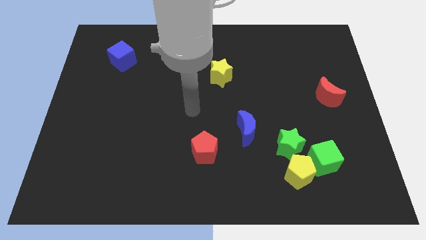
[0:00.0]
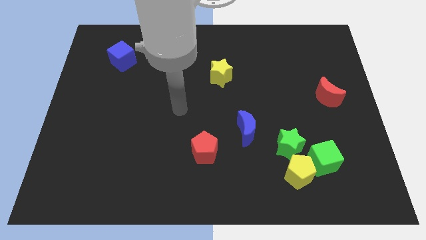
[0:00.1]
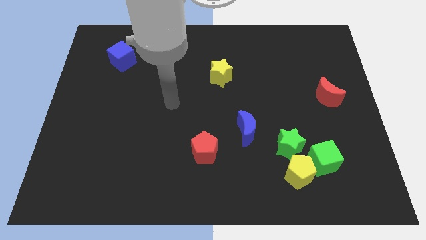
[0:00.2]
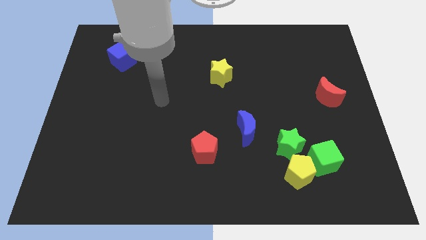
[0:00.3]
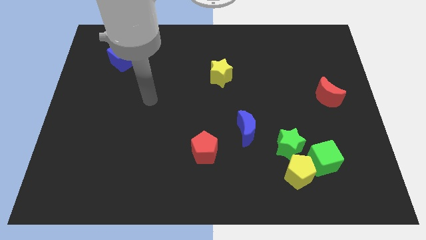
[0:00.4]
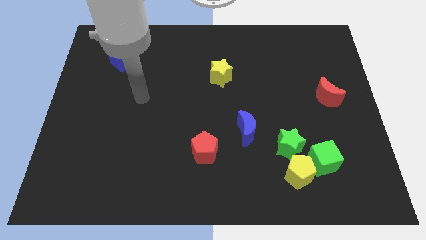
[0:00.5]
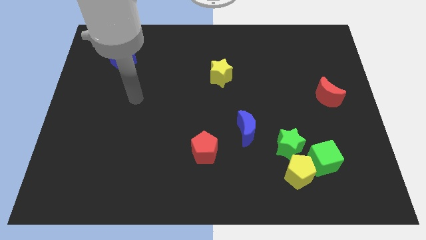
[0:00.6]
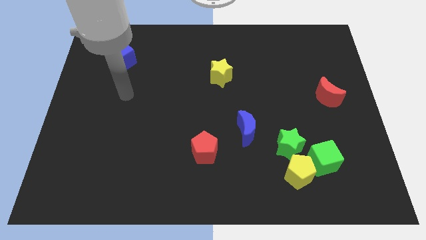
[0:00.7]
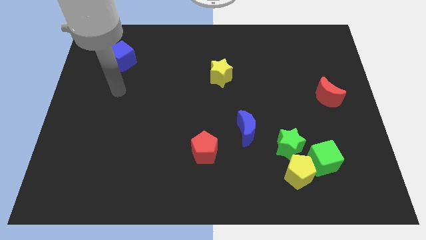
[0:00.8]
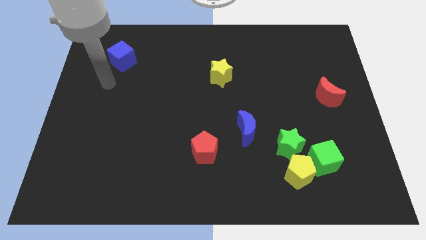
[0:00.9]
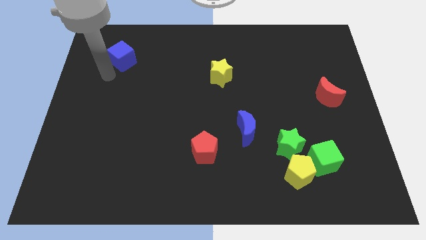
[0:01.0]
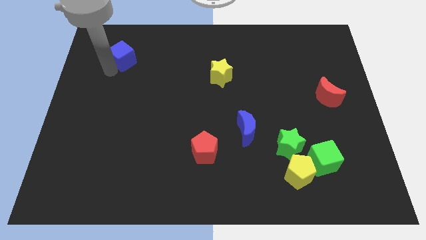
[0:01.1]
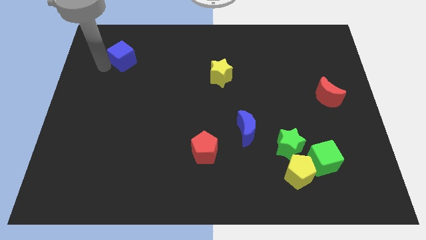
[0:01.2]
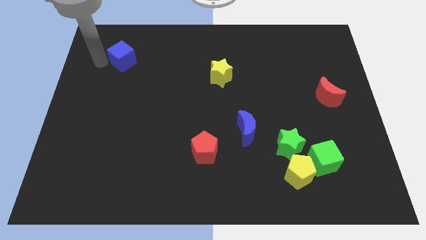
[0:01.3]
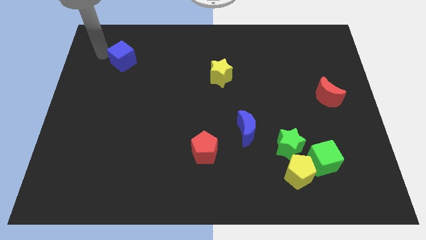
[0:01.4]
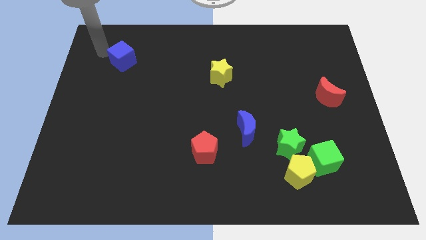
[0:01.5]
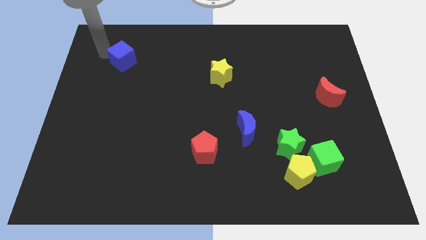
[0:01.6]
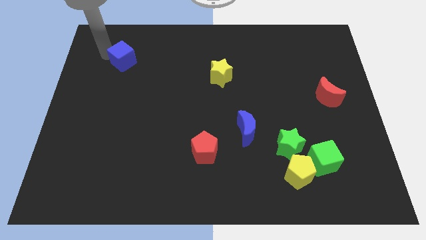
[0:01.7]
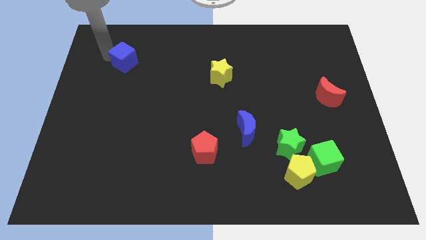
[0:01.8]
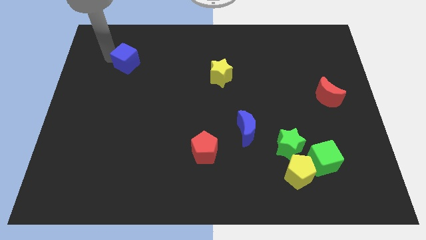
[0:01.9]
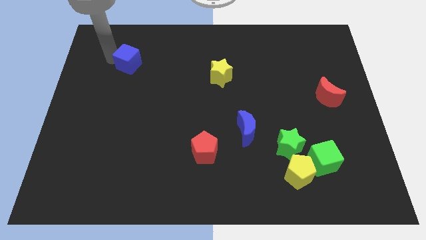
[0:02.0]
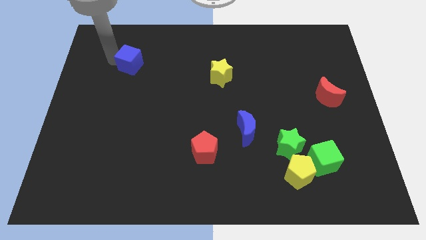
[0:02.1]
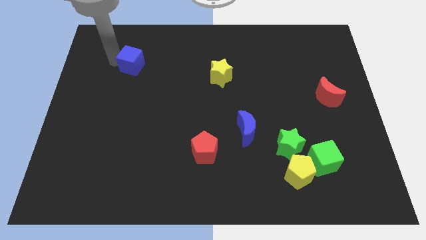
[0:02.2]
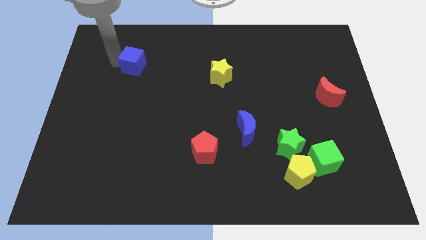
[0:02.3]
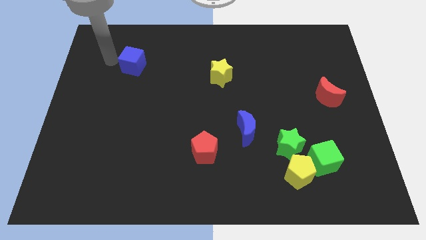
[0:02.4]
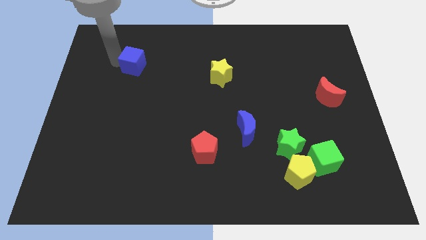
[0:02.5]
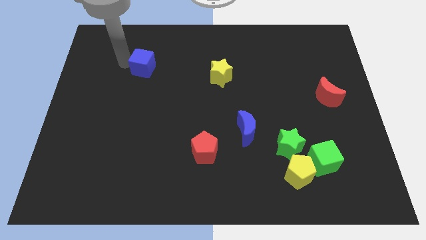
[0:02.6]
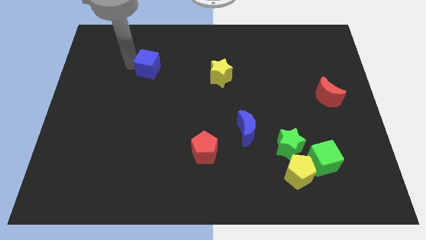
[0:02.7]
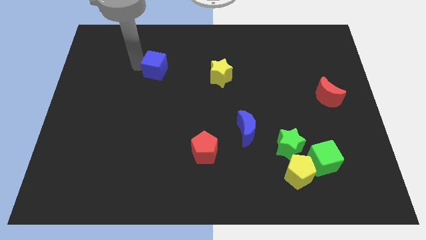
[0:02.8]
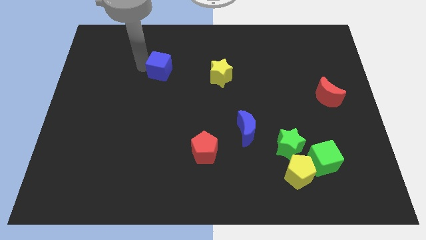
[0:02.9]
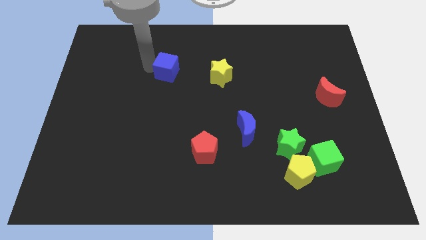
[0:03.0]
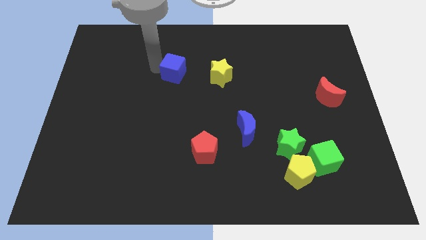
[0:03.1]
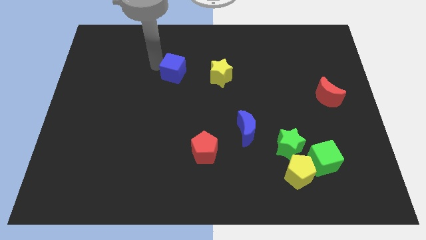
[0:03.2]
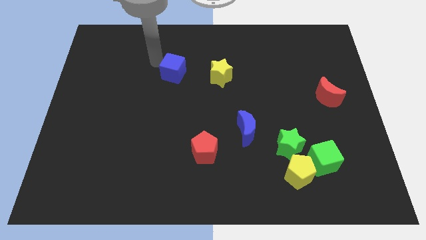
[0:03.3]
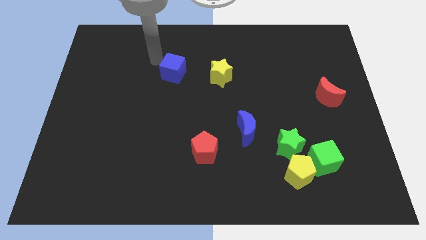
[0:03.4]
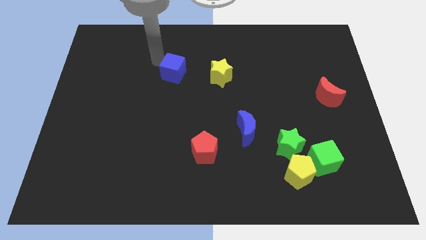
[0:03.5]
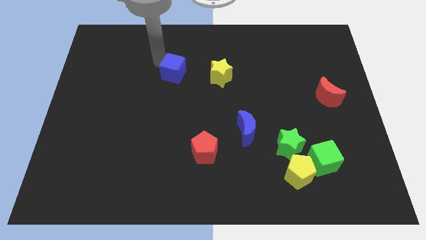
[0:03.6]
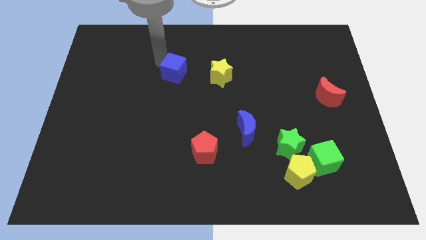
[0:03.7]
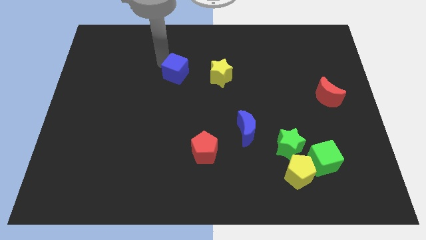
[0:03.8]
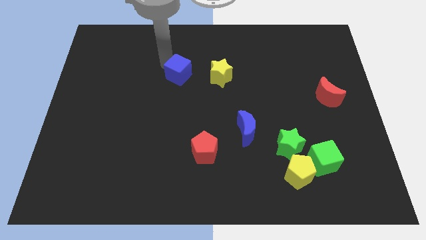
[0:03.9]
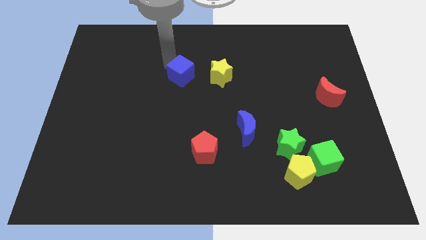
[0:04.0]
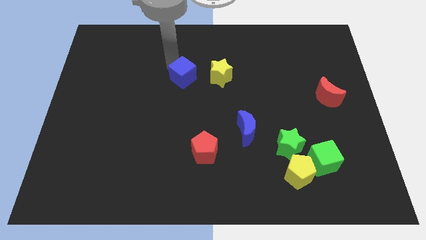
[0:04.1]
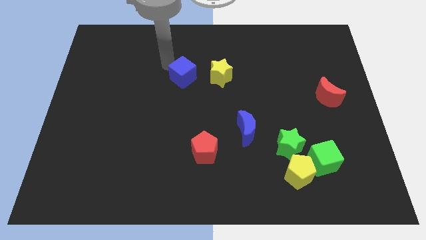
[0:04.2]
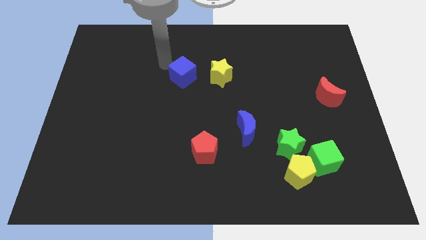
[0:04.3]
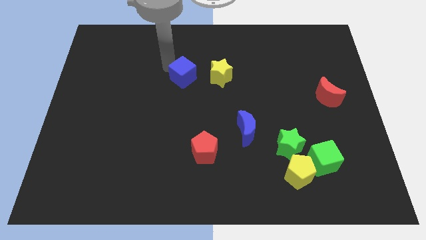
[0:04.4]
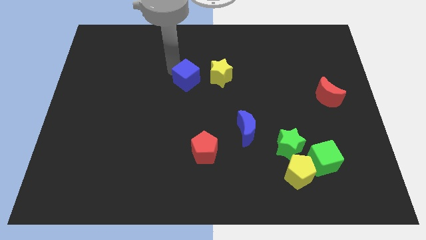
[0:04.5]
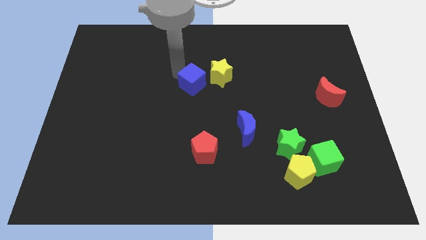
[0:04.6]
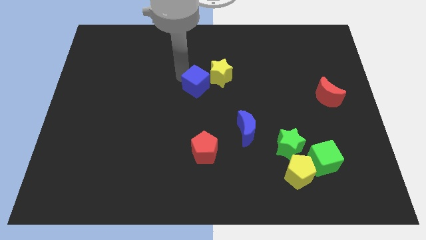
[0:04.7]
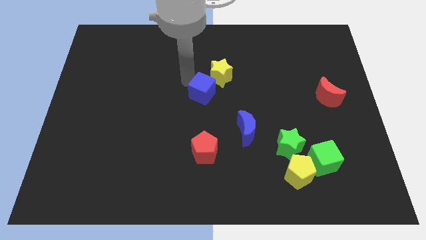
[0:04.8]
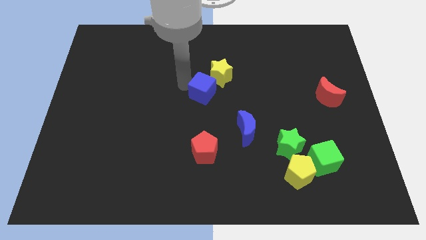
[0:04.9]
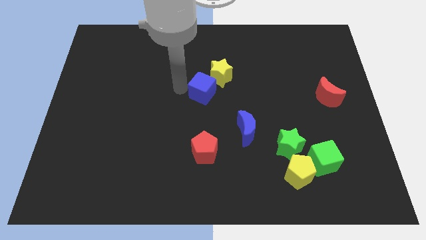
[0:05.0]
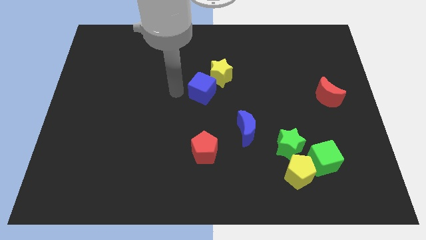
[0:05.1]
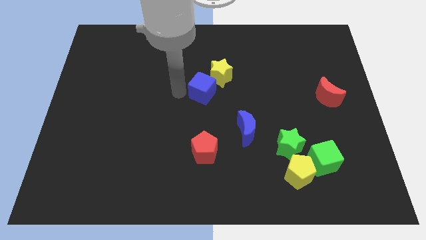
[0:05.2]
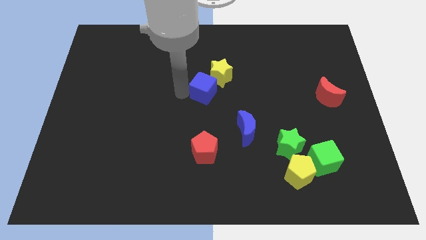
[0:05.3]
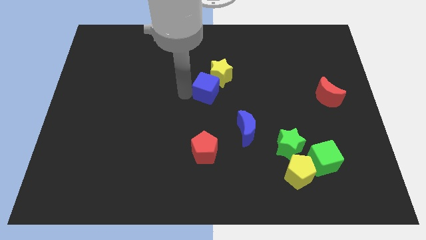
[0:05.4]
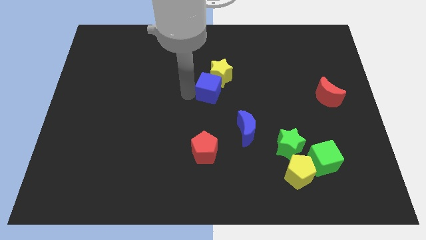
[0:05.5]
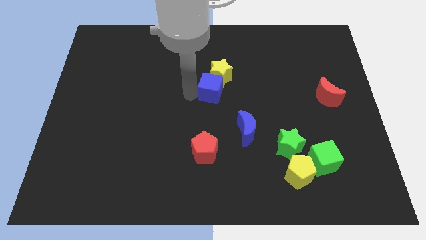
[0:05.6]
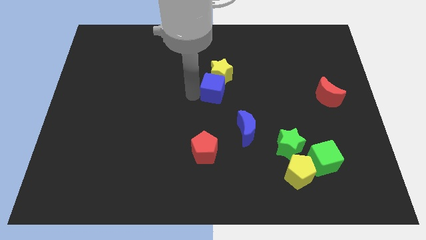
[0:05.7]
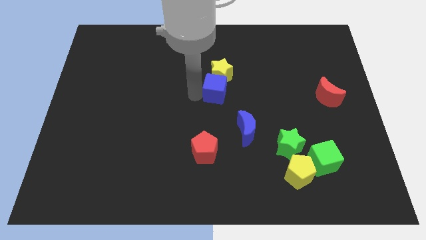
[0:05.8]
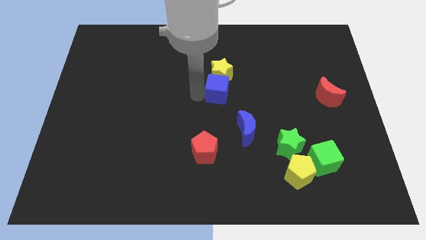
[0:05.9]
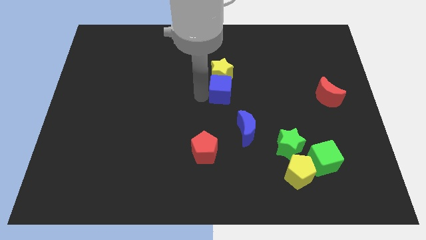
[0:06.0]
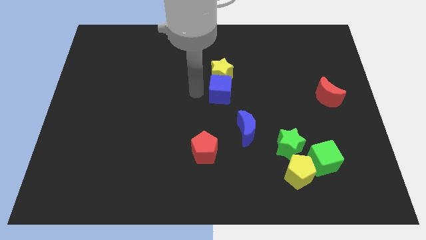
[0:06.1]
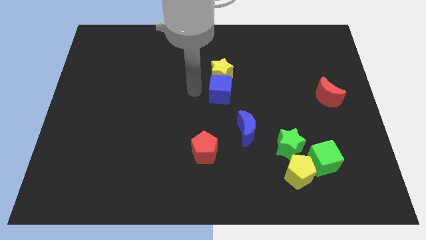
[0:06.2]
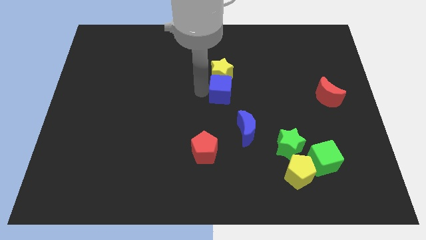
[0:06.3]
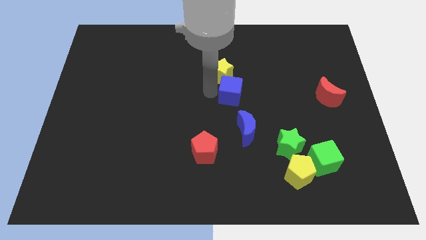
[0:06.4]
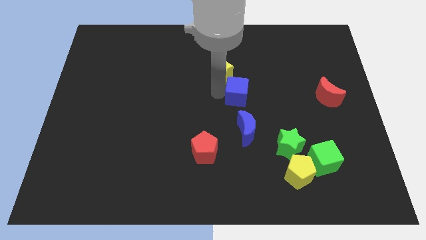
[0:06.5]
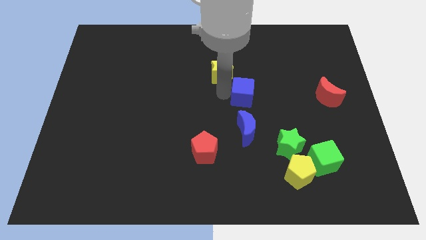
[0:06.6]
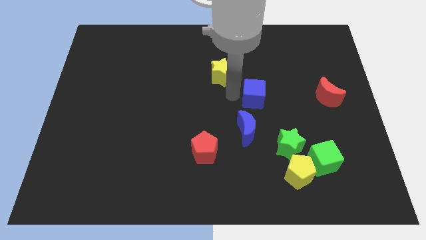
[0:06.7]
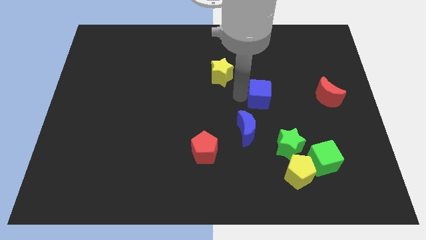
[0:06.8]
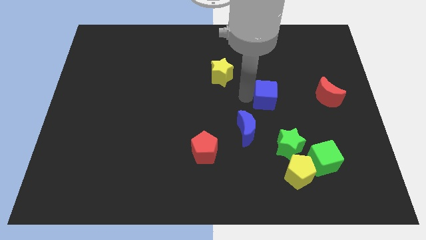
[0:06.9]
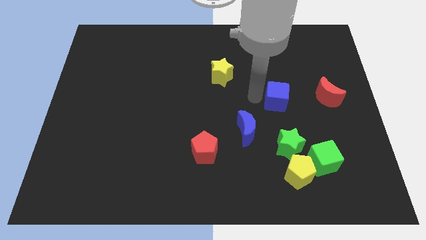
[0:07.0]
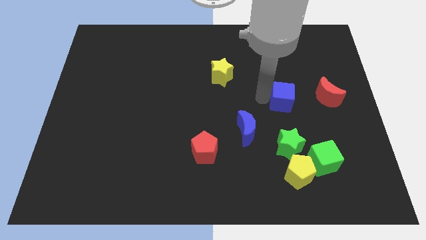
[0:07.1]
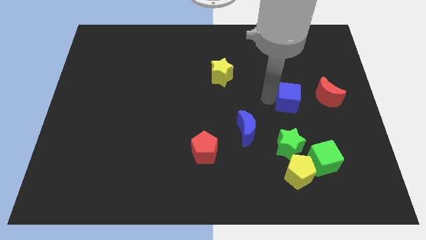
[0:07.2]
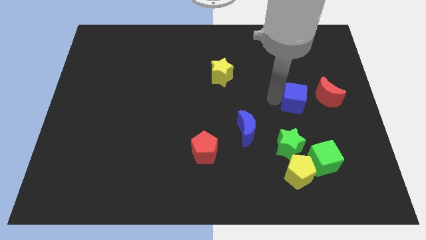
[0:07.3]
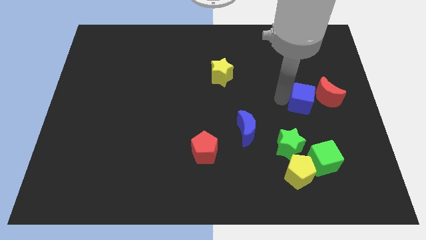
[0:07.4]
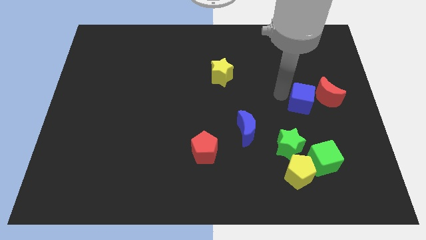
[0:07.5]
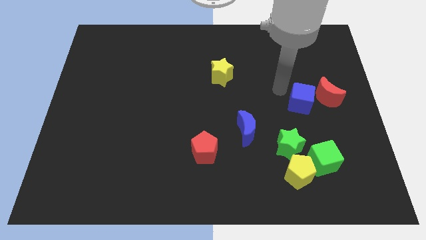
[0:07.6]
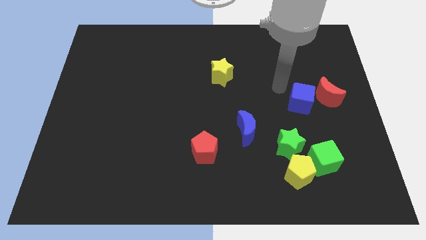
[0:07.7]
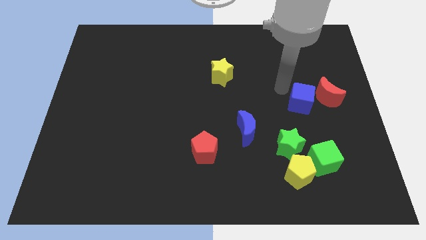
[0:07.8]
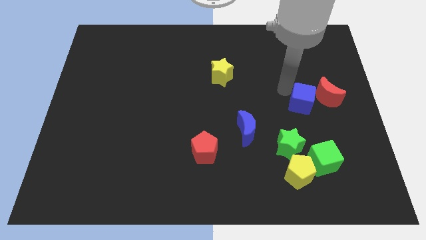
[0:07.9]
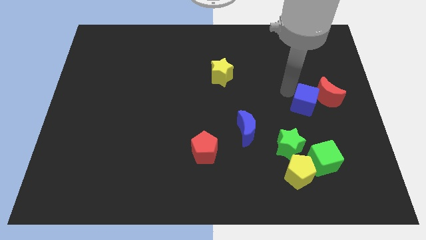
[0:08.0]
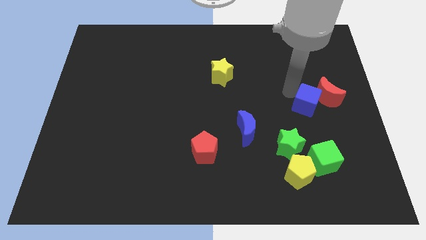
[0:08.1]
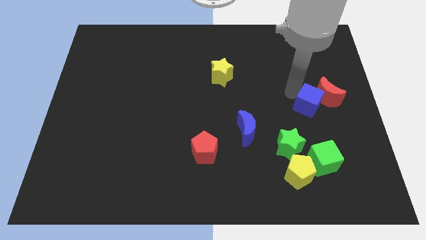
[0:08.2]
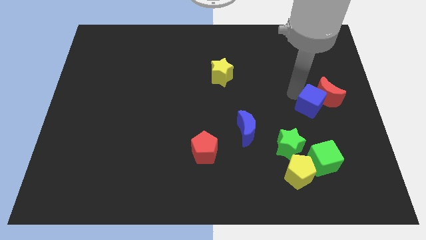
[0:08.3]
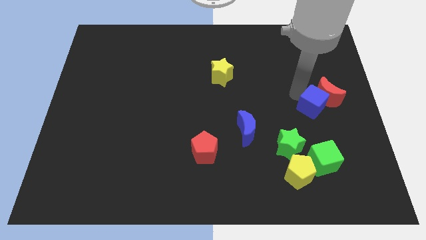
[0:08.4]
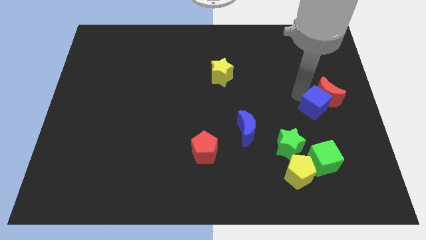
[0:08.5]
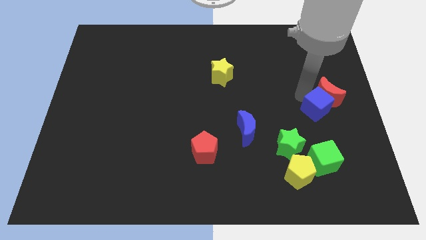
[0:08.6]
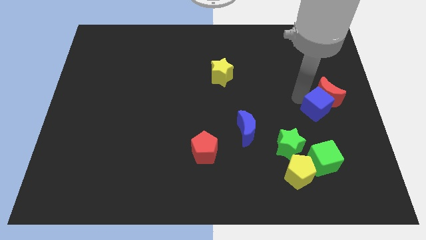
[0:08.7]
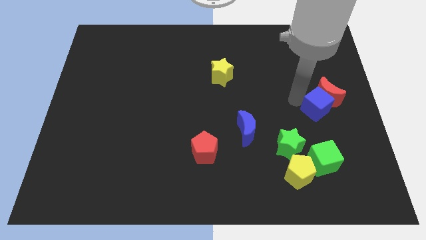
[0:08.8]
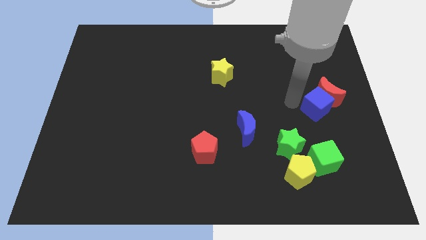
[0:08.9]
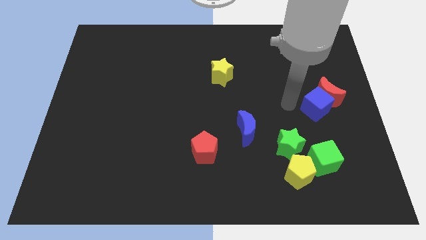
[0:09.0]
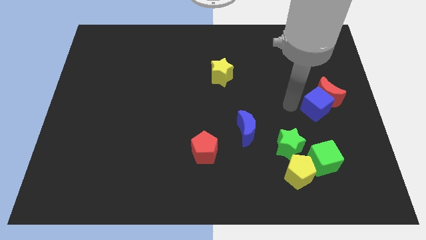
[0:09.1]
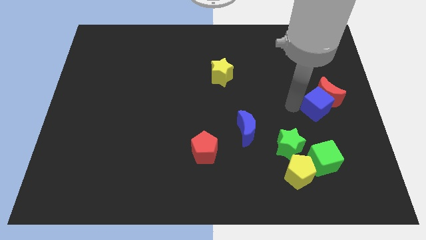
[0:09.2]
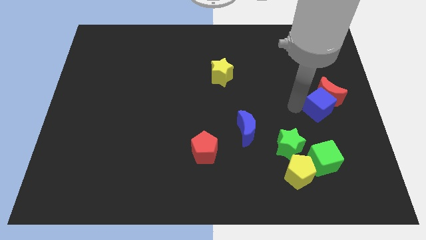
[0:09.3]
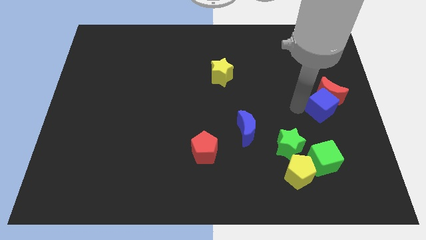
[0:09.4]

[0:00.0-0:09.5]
move the blue cube to the right side
